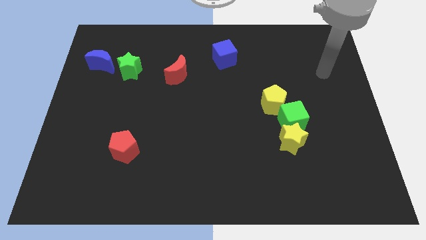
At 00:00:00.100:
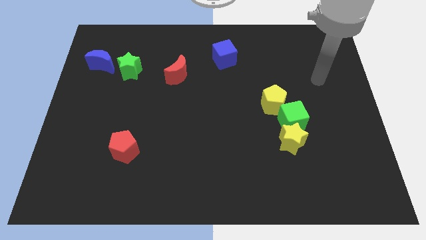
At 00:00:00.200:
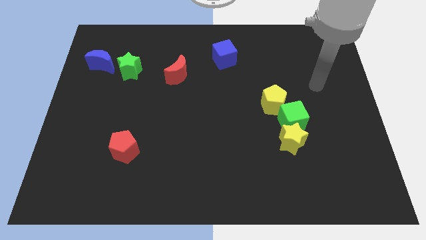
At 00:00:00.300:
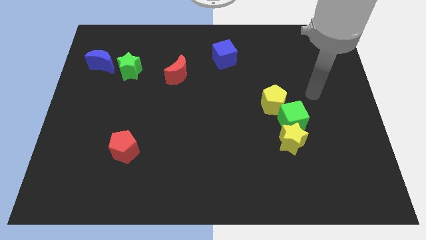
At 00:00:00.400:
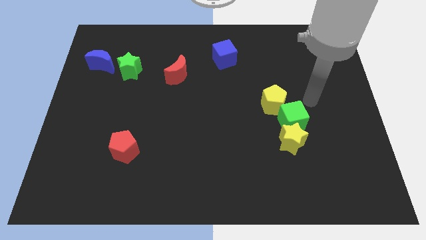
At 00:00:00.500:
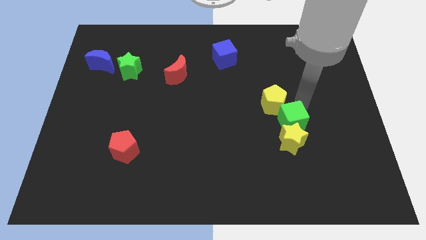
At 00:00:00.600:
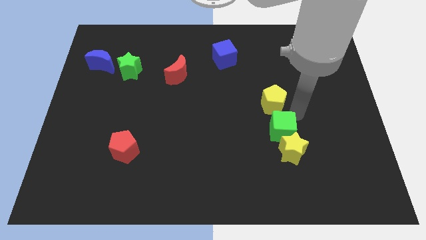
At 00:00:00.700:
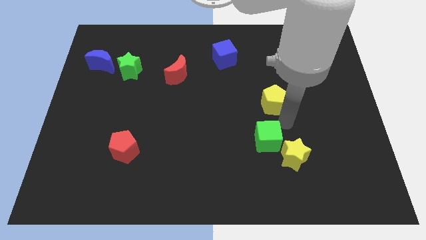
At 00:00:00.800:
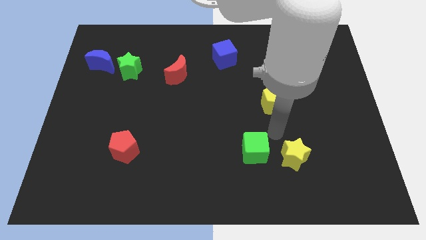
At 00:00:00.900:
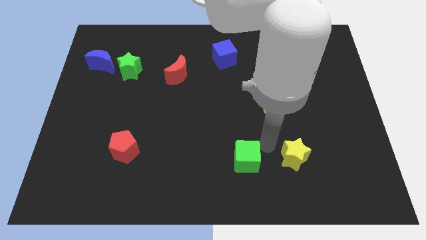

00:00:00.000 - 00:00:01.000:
move the yellow star away from the green cube

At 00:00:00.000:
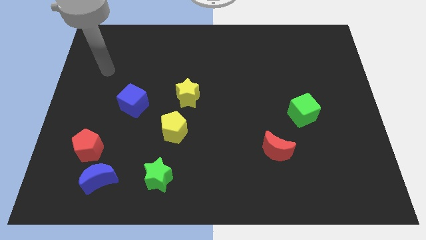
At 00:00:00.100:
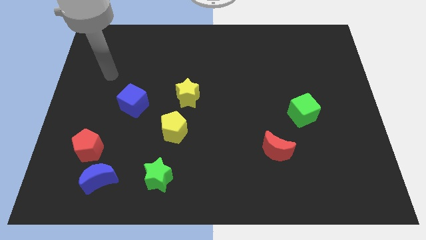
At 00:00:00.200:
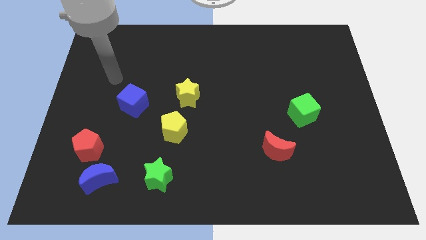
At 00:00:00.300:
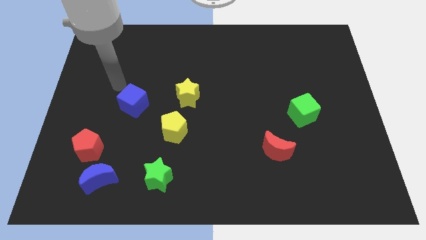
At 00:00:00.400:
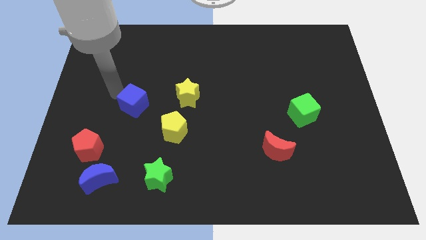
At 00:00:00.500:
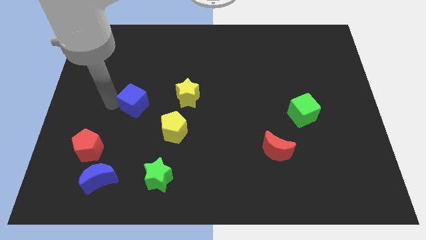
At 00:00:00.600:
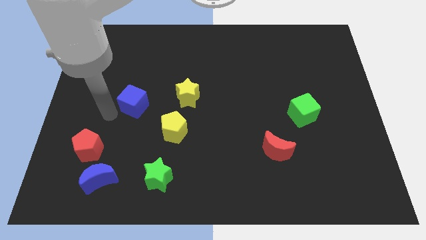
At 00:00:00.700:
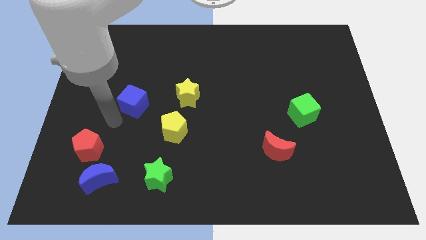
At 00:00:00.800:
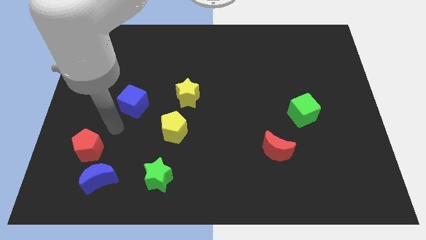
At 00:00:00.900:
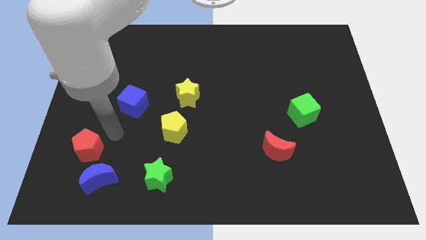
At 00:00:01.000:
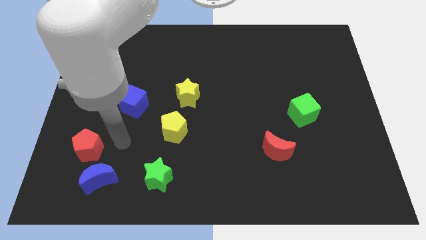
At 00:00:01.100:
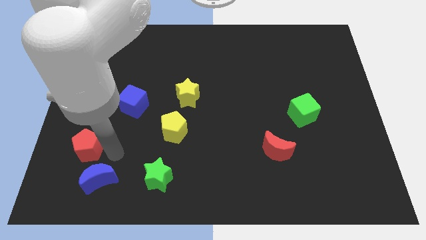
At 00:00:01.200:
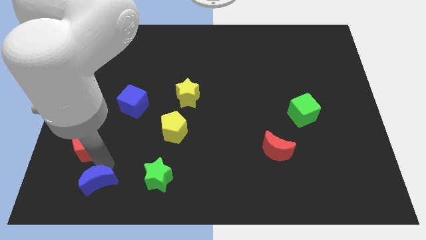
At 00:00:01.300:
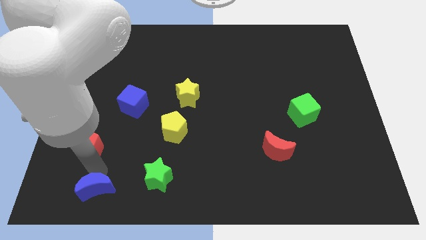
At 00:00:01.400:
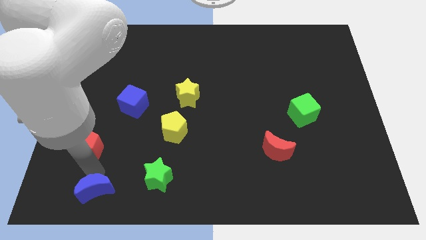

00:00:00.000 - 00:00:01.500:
move the red pentagon away from the blue moon

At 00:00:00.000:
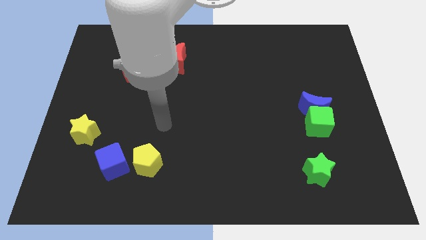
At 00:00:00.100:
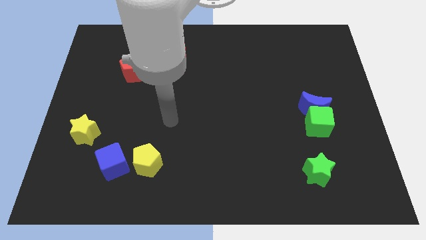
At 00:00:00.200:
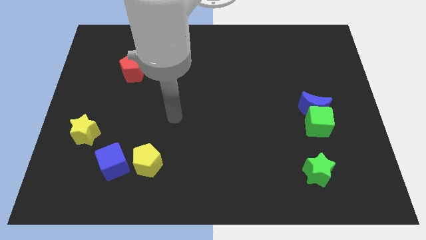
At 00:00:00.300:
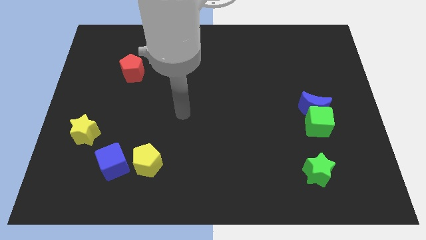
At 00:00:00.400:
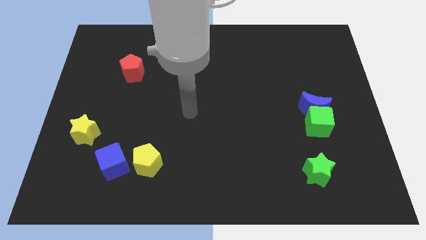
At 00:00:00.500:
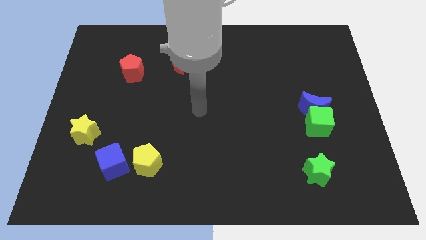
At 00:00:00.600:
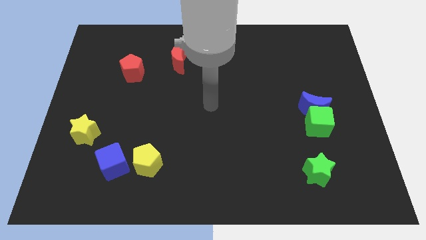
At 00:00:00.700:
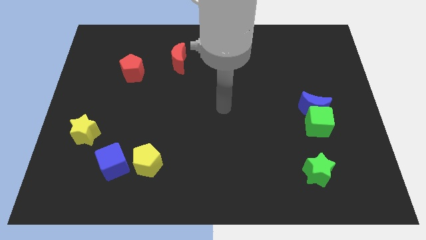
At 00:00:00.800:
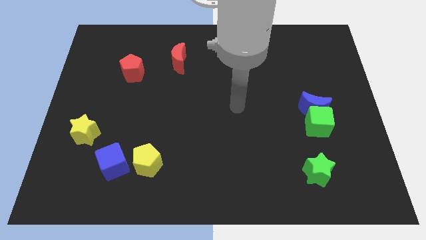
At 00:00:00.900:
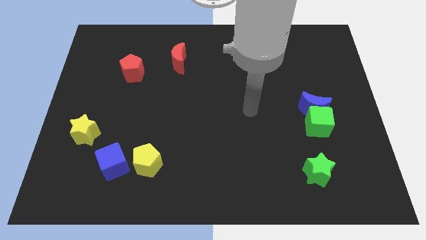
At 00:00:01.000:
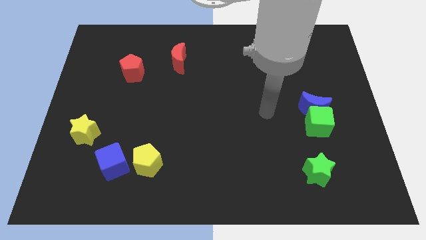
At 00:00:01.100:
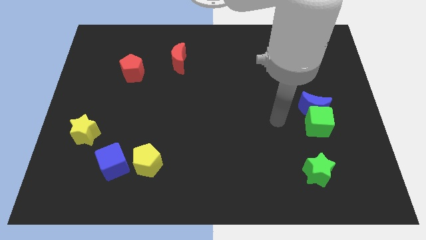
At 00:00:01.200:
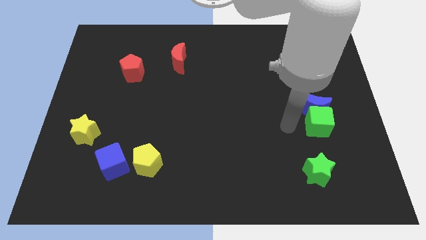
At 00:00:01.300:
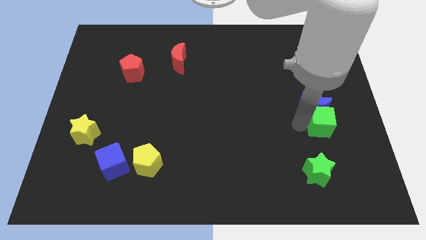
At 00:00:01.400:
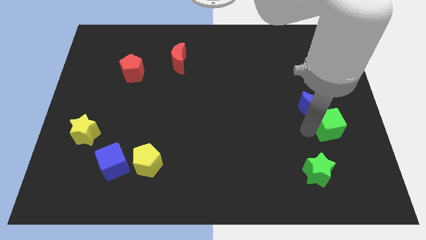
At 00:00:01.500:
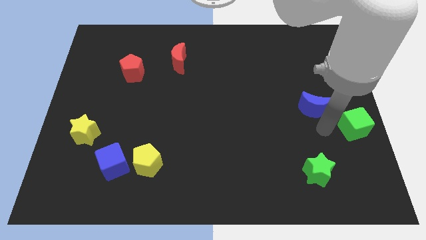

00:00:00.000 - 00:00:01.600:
separate the blue moon from the green cube

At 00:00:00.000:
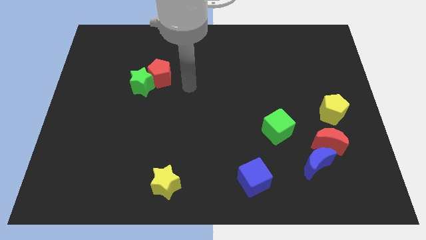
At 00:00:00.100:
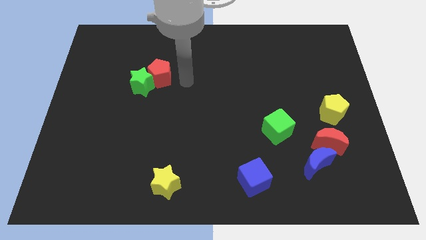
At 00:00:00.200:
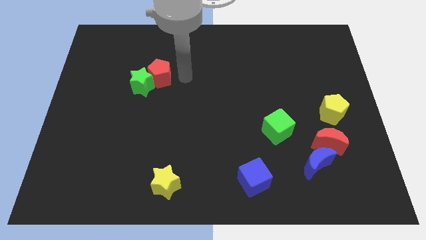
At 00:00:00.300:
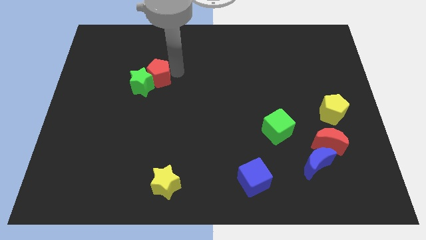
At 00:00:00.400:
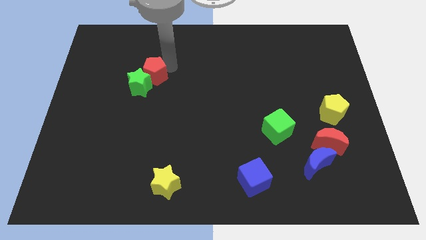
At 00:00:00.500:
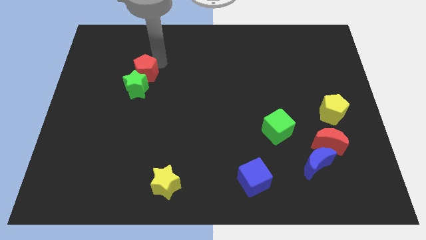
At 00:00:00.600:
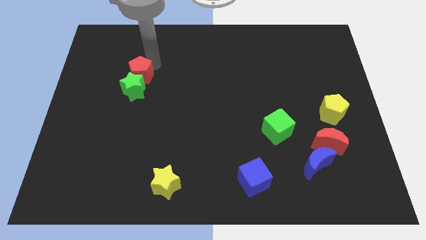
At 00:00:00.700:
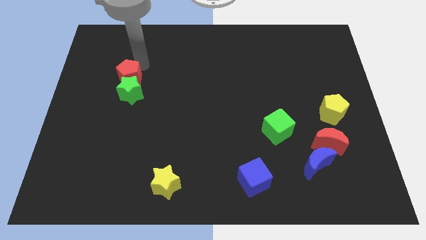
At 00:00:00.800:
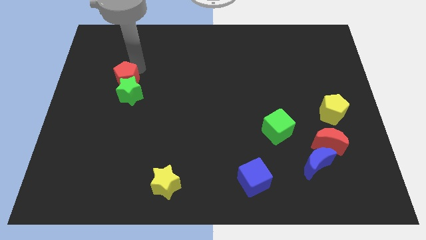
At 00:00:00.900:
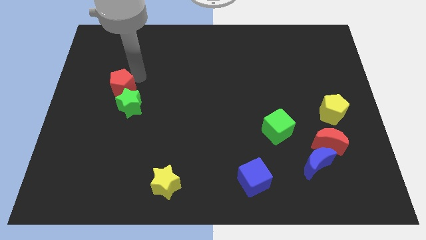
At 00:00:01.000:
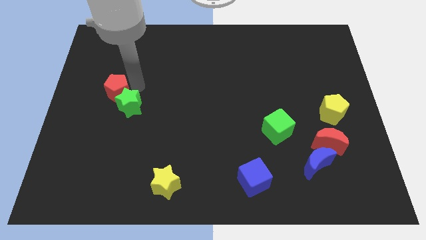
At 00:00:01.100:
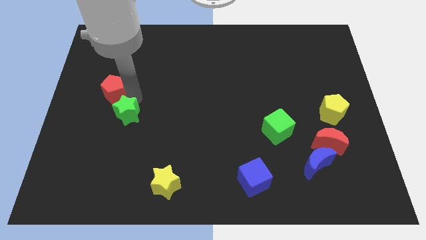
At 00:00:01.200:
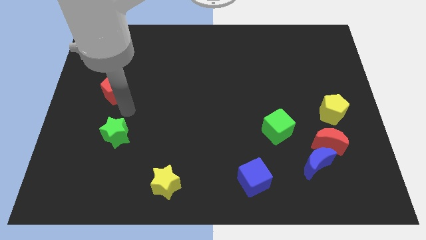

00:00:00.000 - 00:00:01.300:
separate the red pentagon from the green star

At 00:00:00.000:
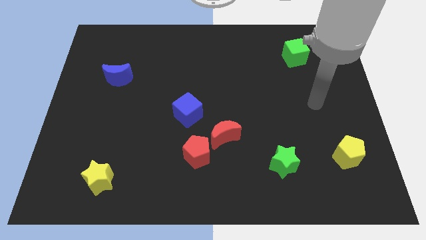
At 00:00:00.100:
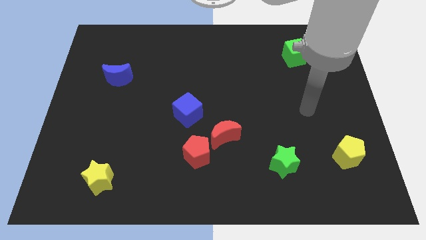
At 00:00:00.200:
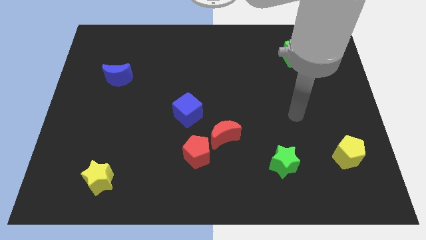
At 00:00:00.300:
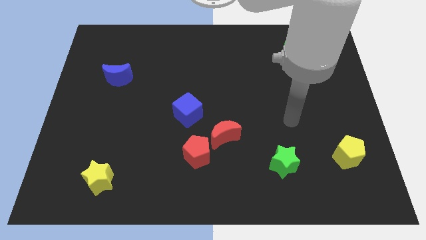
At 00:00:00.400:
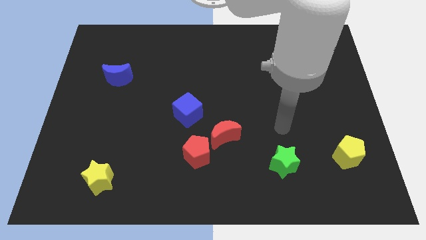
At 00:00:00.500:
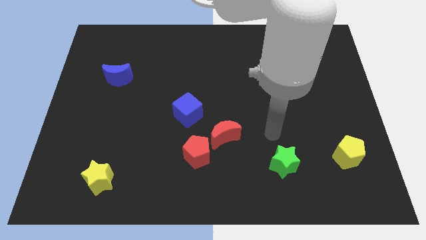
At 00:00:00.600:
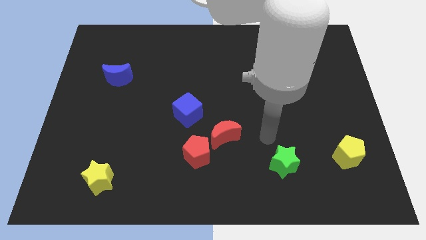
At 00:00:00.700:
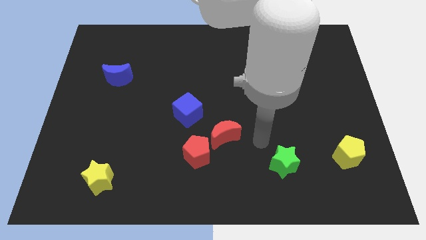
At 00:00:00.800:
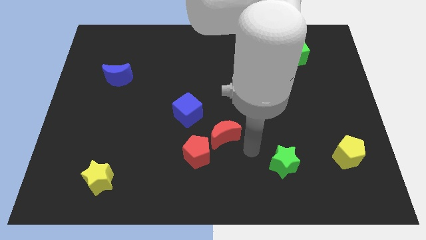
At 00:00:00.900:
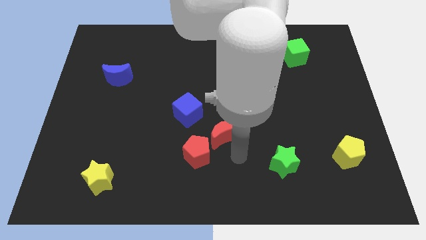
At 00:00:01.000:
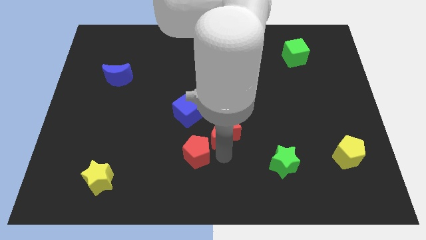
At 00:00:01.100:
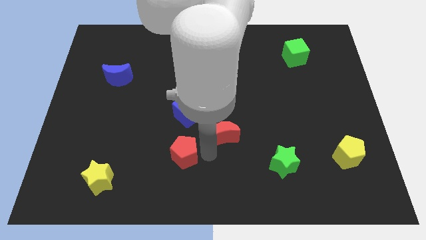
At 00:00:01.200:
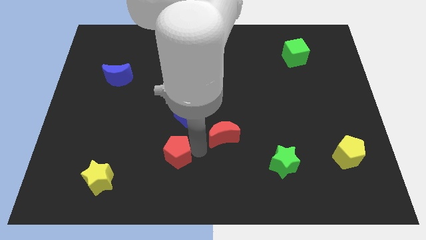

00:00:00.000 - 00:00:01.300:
separate the red moon from the red pentagon

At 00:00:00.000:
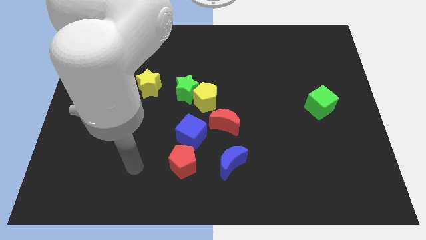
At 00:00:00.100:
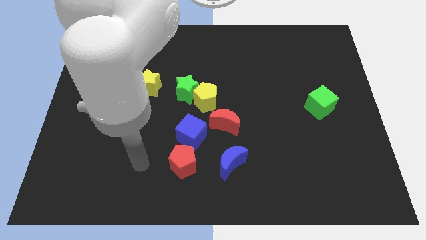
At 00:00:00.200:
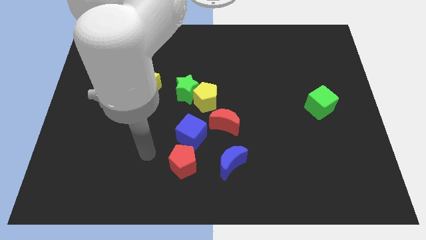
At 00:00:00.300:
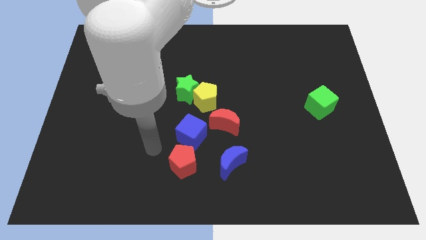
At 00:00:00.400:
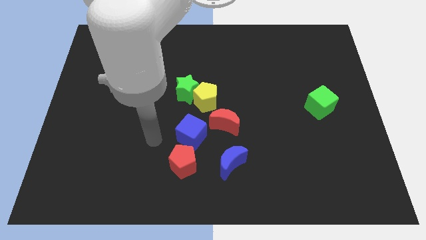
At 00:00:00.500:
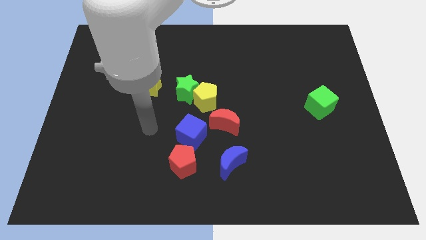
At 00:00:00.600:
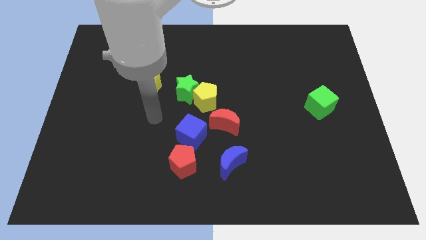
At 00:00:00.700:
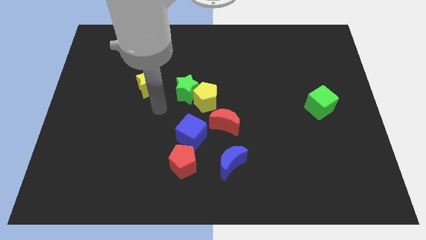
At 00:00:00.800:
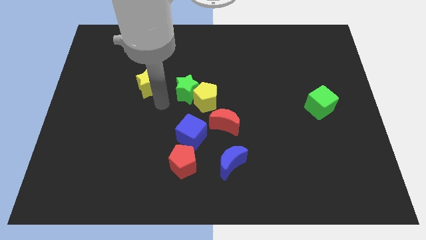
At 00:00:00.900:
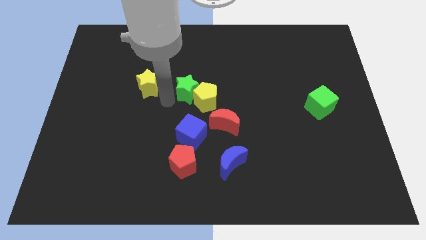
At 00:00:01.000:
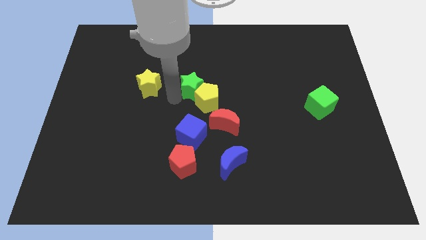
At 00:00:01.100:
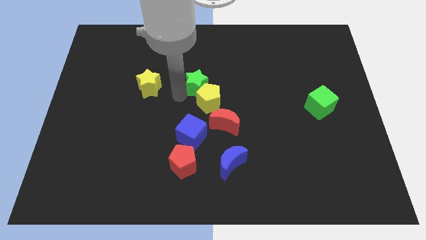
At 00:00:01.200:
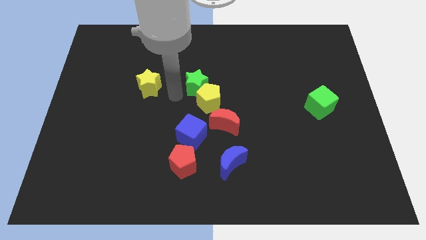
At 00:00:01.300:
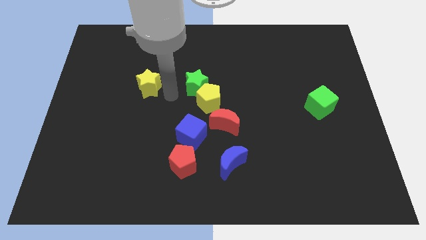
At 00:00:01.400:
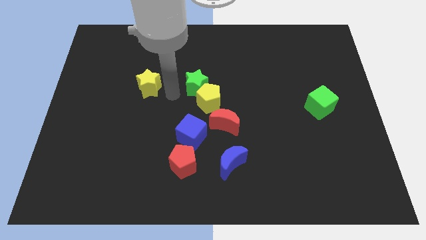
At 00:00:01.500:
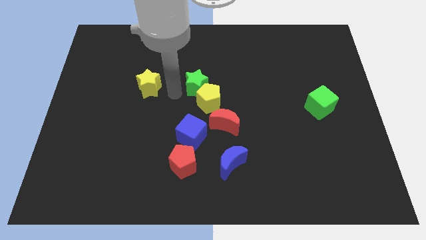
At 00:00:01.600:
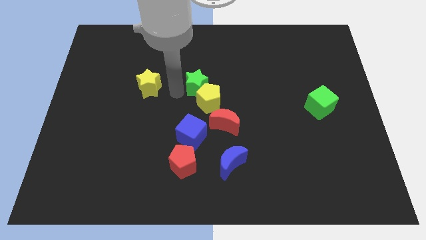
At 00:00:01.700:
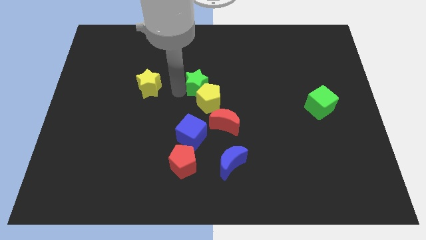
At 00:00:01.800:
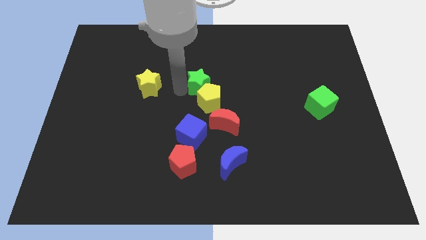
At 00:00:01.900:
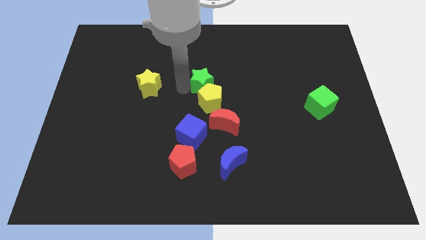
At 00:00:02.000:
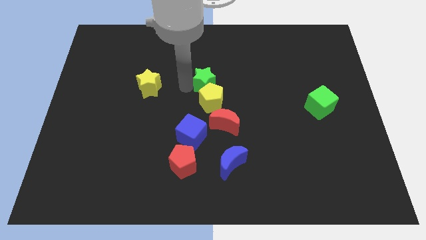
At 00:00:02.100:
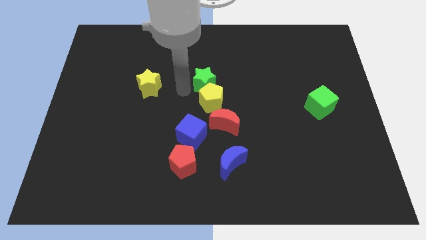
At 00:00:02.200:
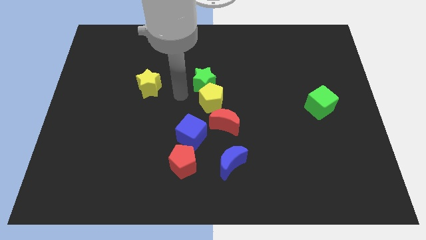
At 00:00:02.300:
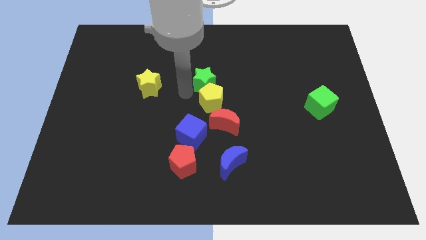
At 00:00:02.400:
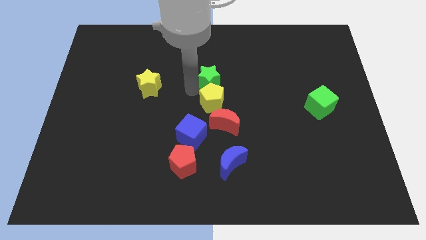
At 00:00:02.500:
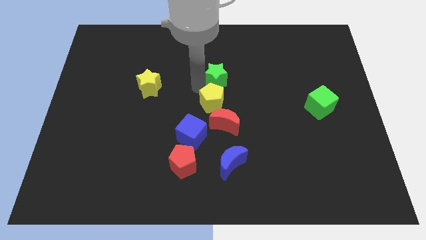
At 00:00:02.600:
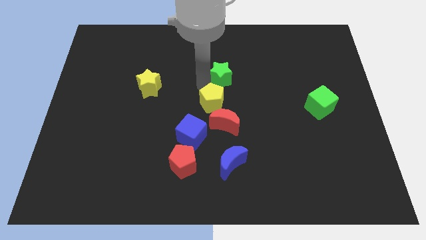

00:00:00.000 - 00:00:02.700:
move the green star away from the yellow pentagon and yellow star
